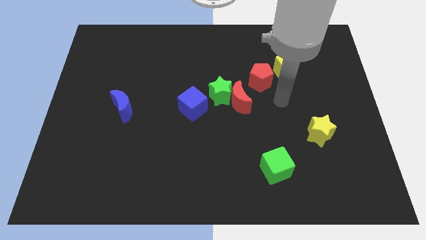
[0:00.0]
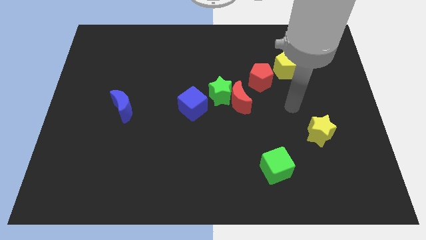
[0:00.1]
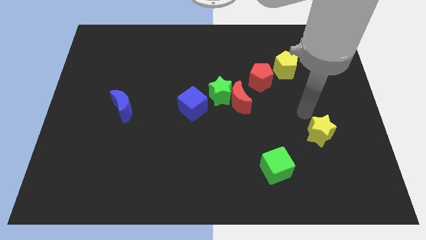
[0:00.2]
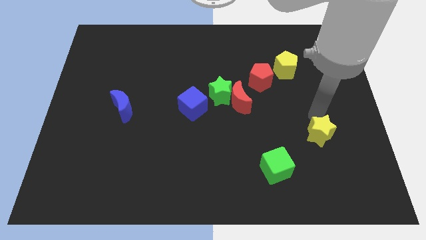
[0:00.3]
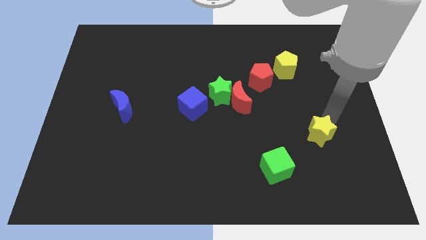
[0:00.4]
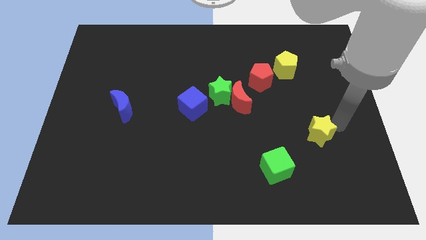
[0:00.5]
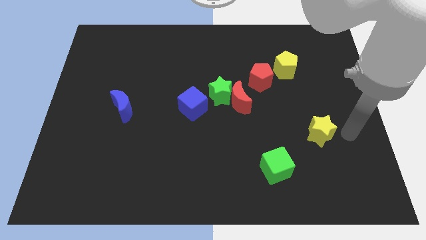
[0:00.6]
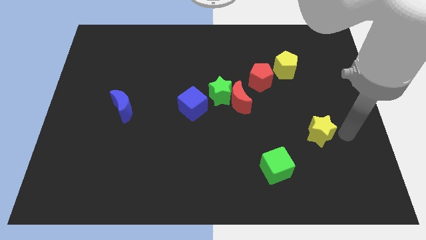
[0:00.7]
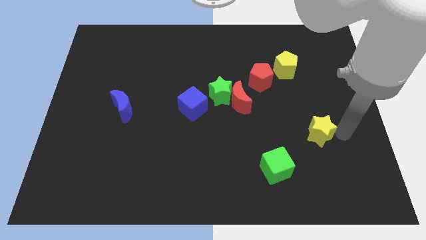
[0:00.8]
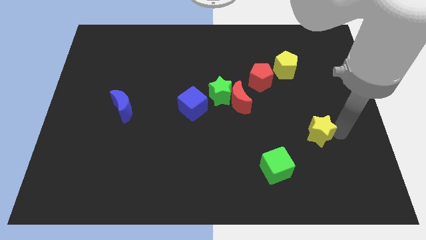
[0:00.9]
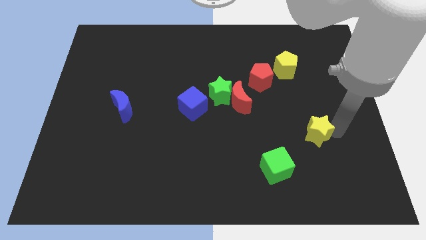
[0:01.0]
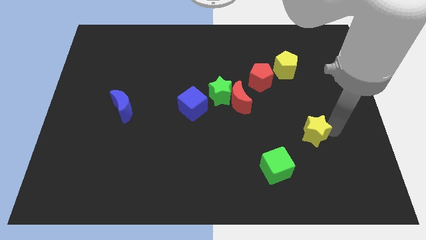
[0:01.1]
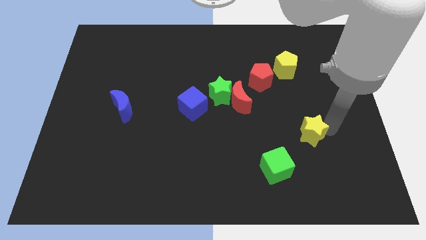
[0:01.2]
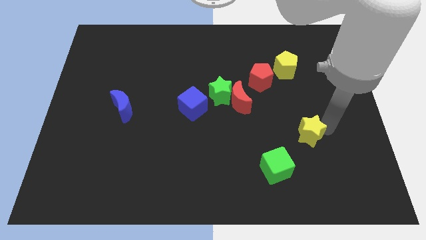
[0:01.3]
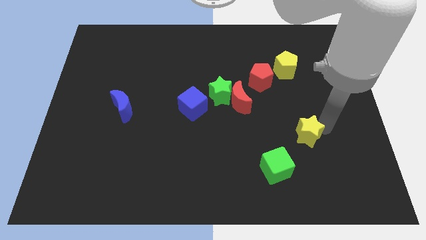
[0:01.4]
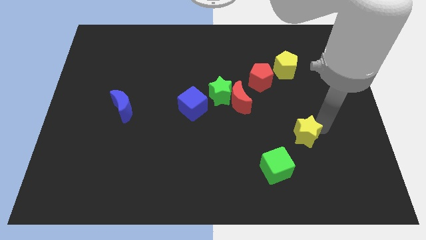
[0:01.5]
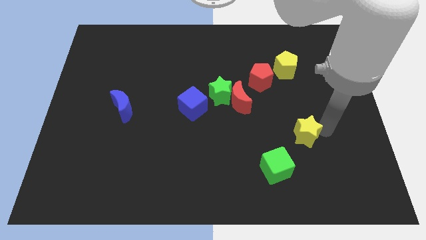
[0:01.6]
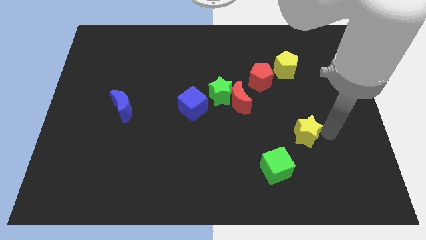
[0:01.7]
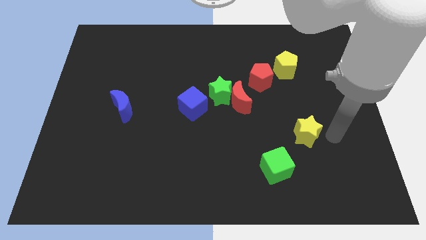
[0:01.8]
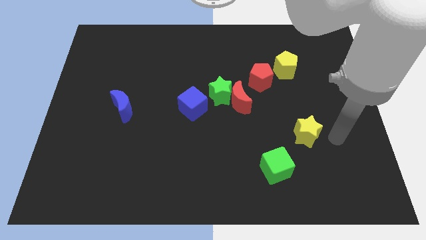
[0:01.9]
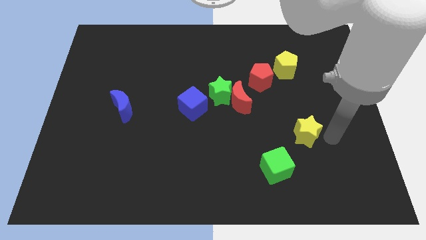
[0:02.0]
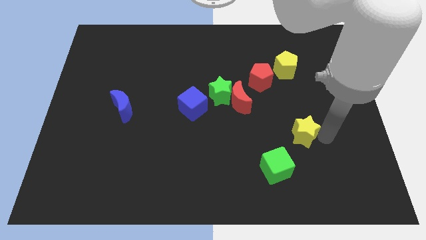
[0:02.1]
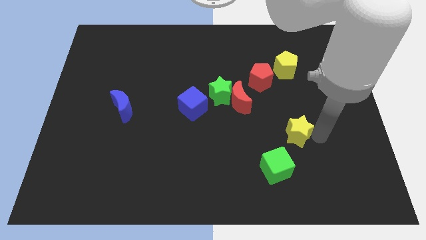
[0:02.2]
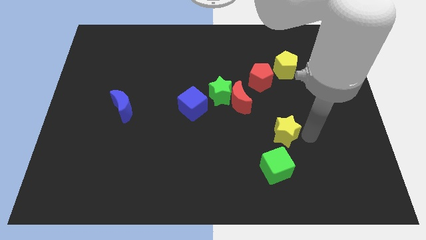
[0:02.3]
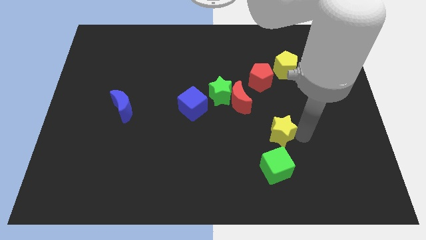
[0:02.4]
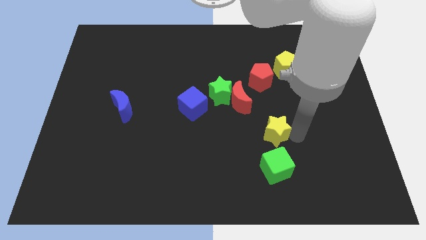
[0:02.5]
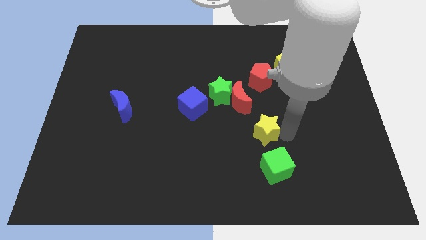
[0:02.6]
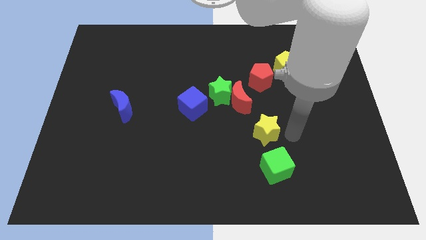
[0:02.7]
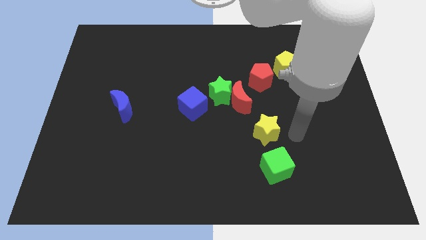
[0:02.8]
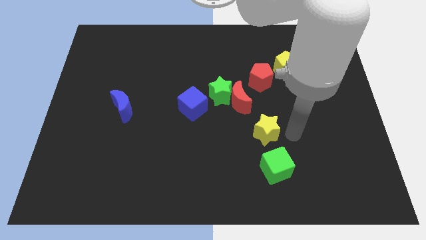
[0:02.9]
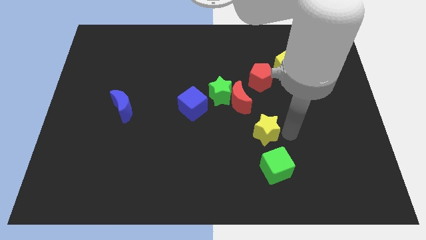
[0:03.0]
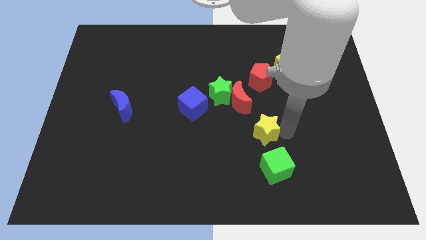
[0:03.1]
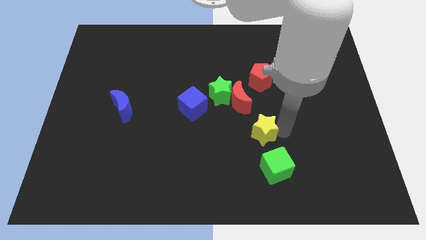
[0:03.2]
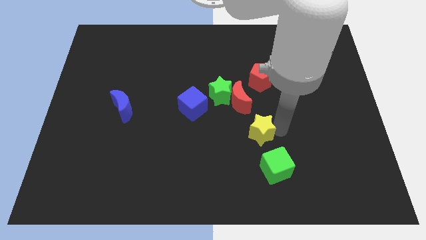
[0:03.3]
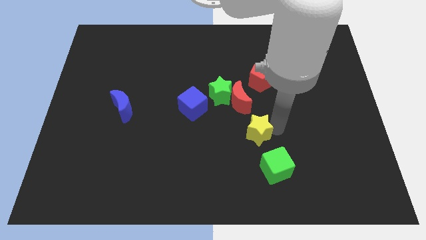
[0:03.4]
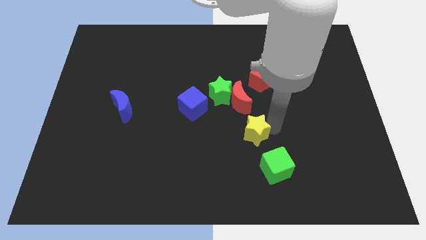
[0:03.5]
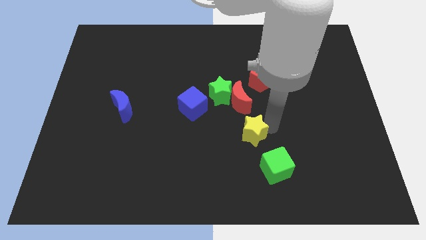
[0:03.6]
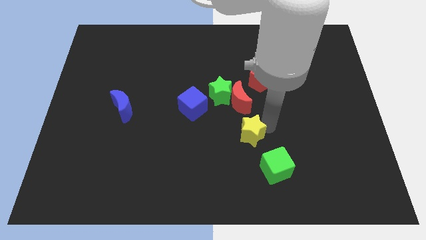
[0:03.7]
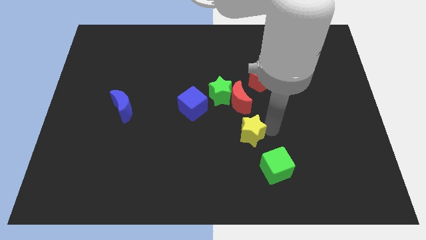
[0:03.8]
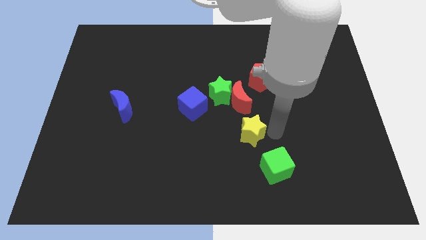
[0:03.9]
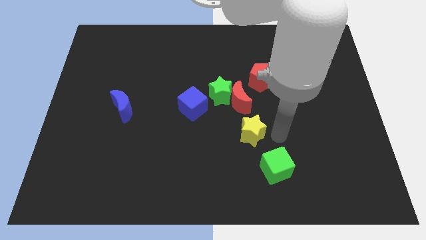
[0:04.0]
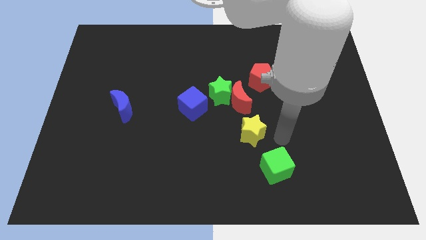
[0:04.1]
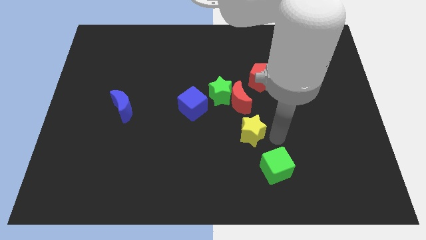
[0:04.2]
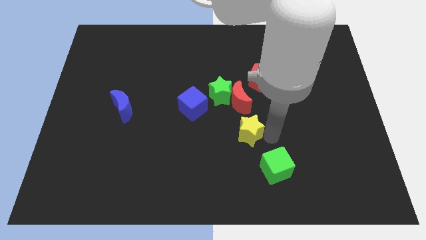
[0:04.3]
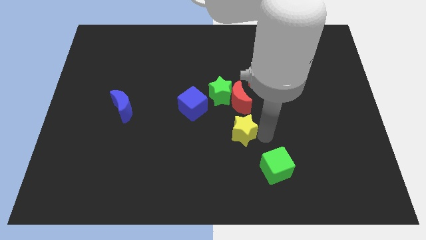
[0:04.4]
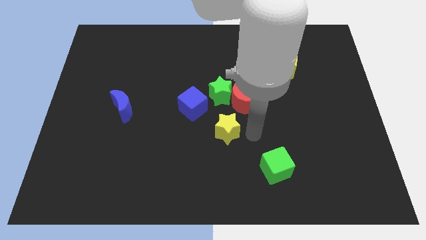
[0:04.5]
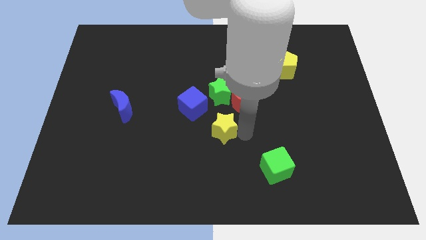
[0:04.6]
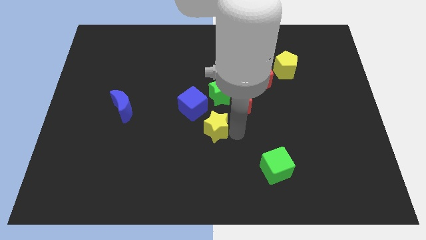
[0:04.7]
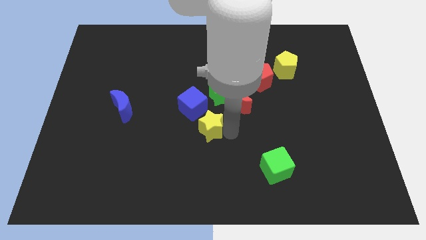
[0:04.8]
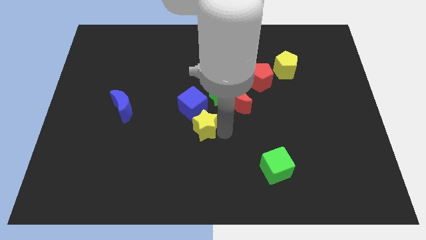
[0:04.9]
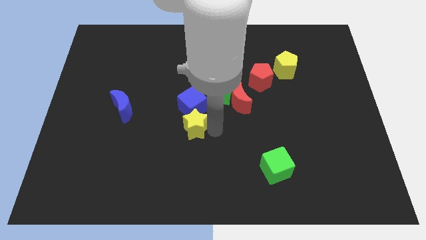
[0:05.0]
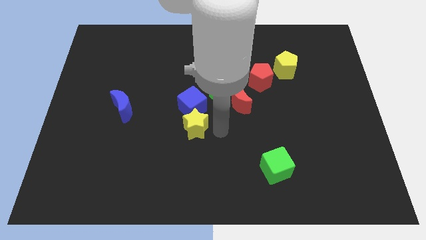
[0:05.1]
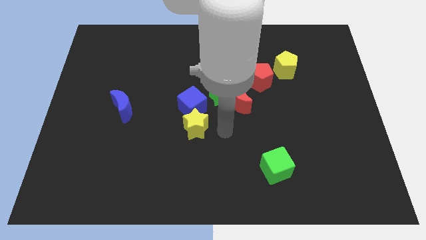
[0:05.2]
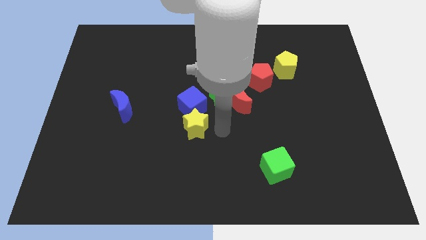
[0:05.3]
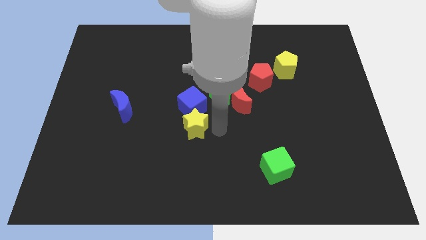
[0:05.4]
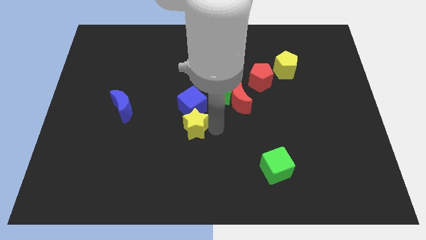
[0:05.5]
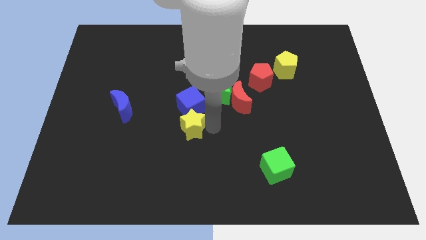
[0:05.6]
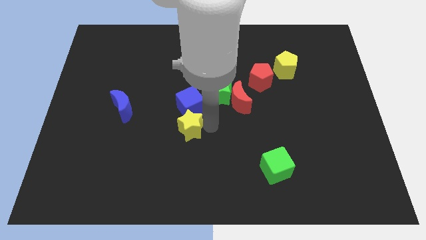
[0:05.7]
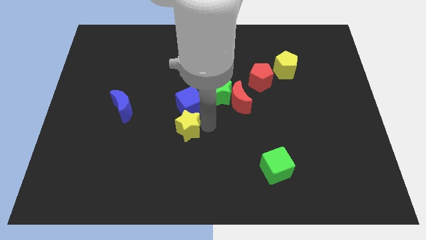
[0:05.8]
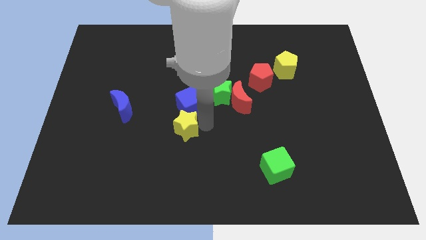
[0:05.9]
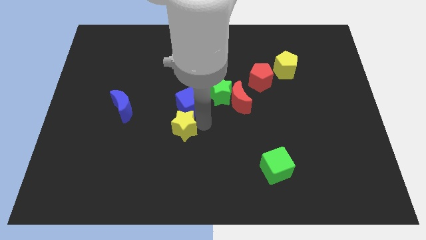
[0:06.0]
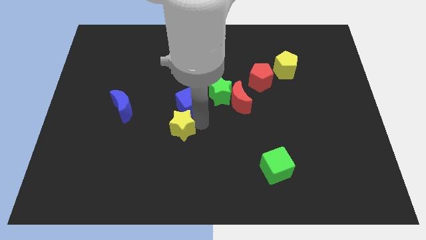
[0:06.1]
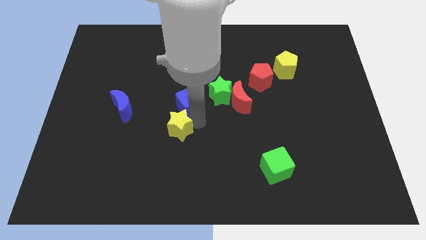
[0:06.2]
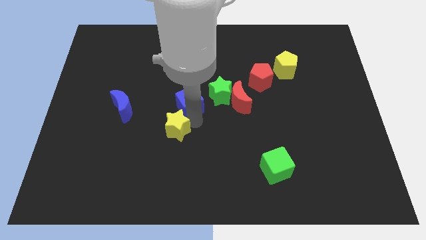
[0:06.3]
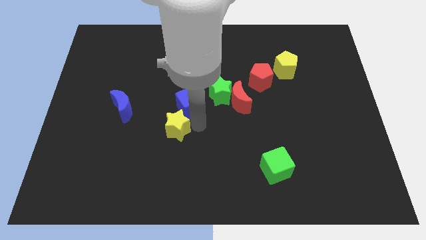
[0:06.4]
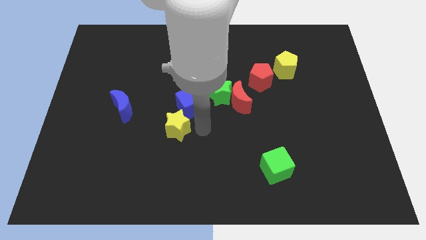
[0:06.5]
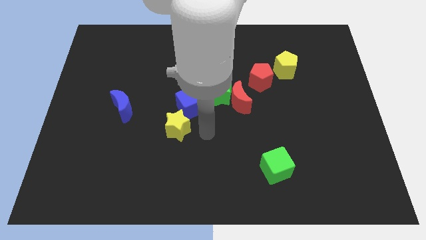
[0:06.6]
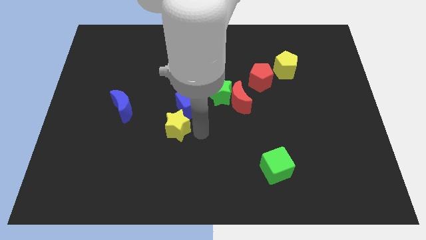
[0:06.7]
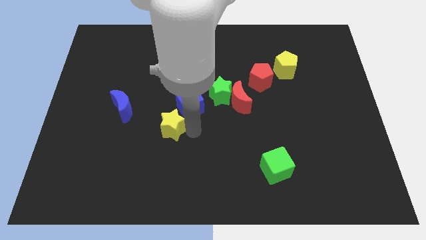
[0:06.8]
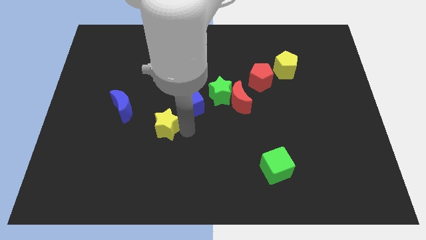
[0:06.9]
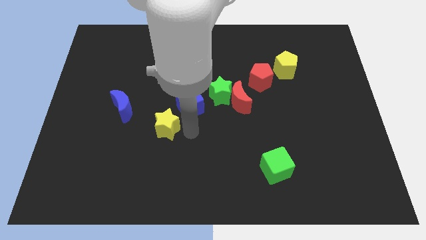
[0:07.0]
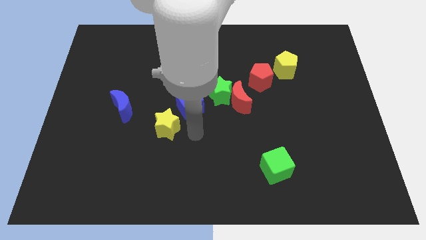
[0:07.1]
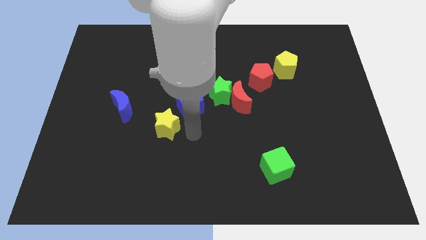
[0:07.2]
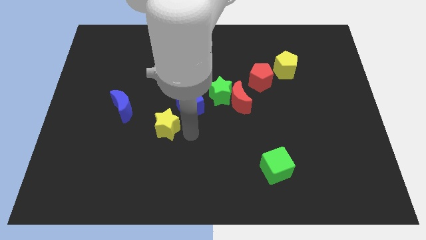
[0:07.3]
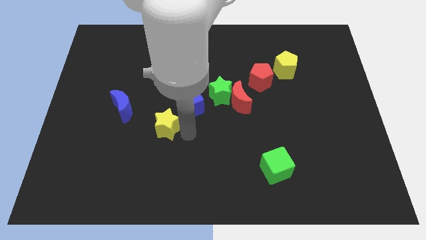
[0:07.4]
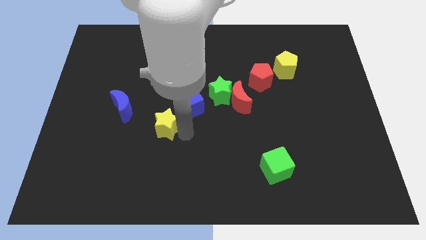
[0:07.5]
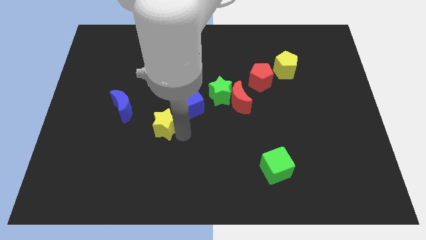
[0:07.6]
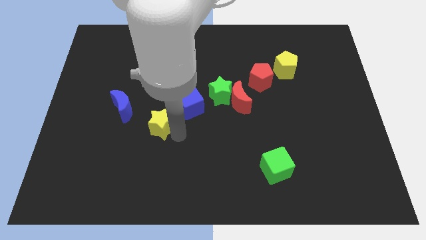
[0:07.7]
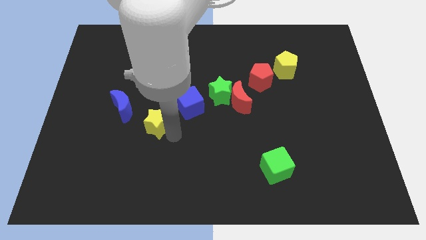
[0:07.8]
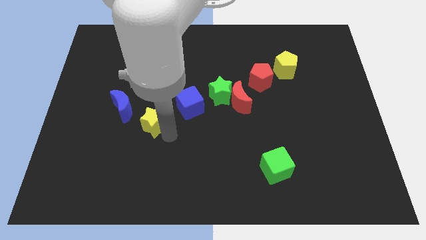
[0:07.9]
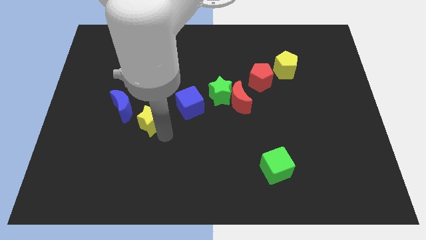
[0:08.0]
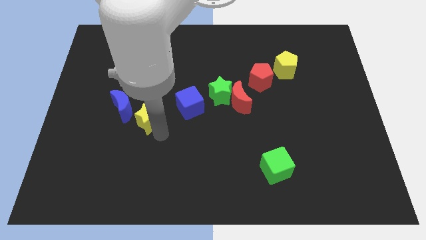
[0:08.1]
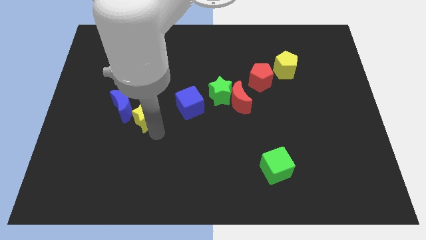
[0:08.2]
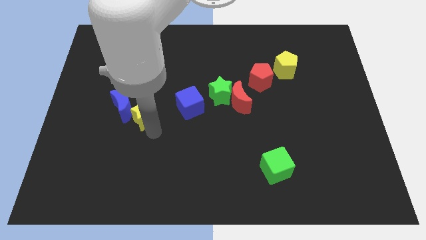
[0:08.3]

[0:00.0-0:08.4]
move the yellow star to the blue moon
